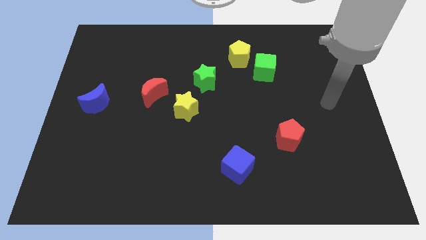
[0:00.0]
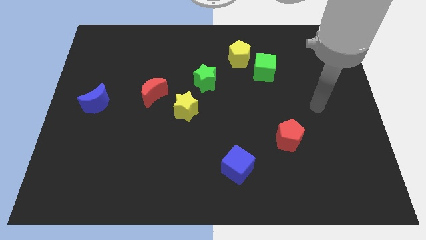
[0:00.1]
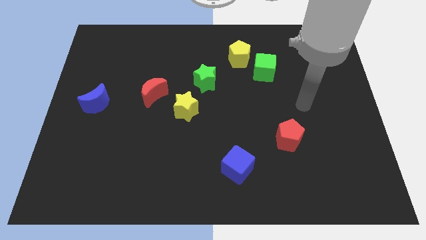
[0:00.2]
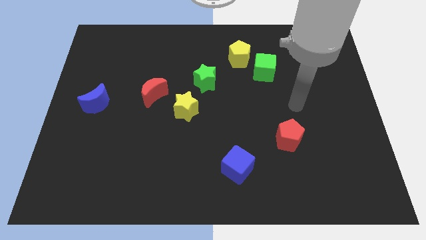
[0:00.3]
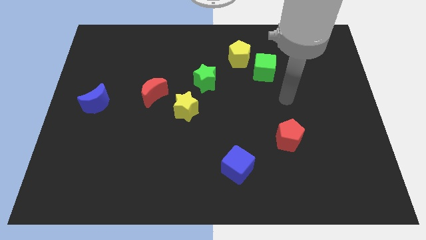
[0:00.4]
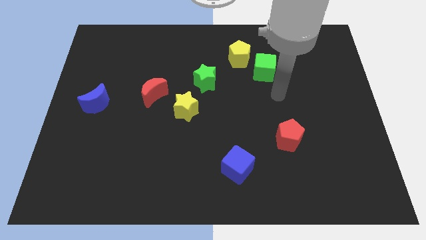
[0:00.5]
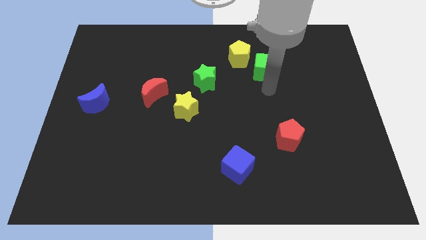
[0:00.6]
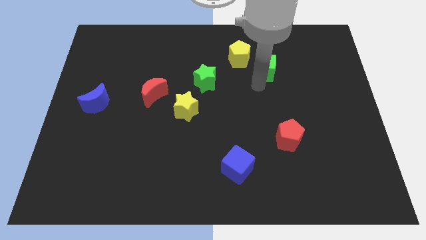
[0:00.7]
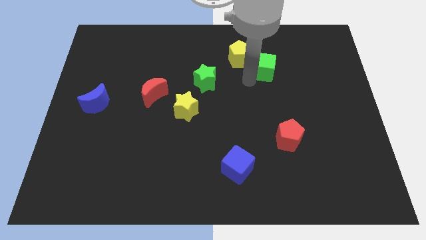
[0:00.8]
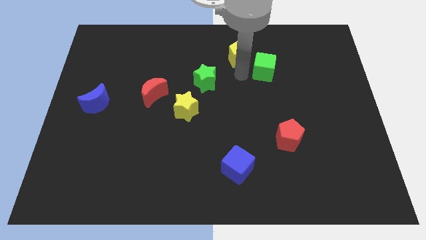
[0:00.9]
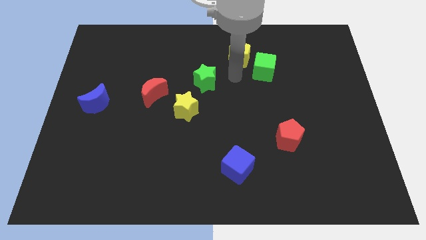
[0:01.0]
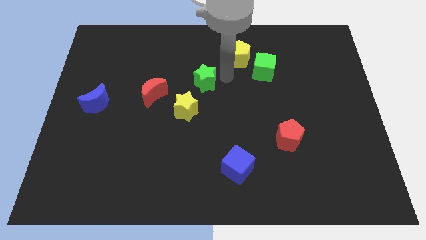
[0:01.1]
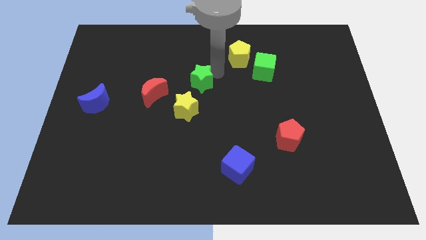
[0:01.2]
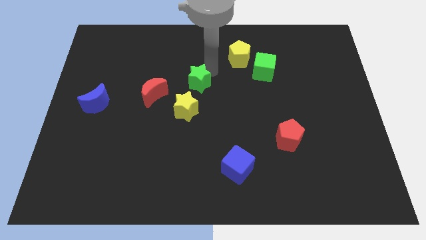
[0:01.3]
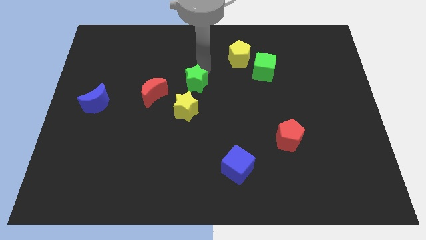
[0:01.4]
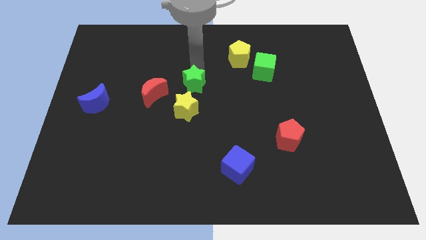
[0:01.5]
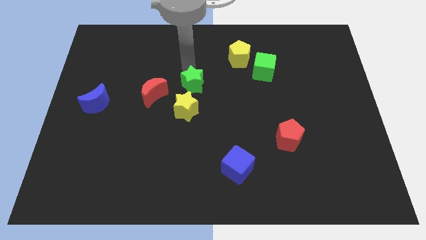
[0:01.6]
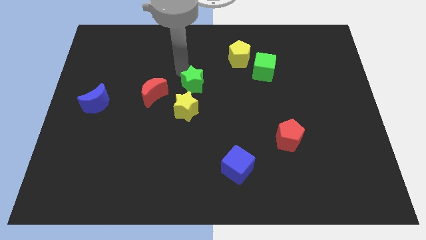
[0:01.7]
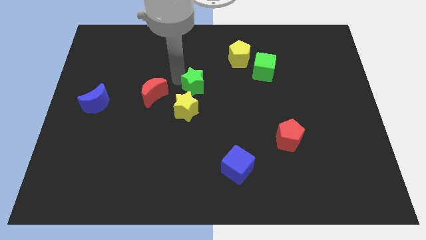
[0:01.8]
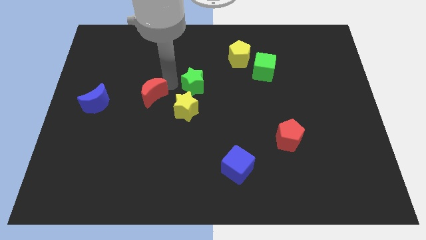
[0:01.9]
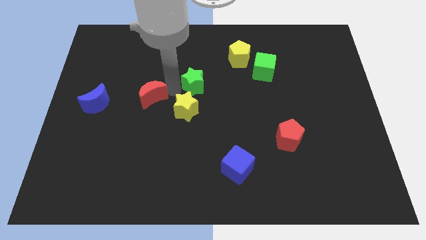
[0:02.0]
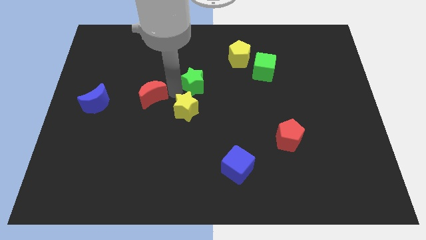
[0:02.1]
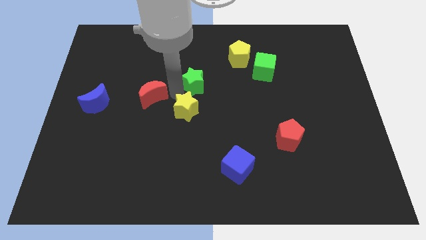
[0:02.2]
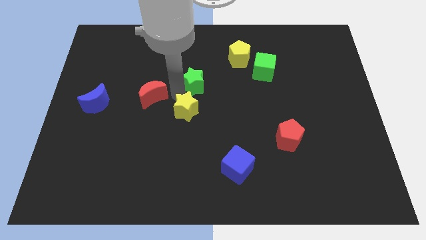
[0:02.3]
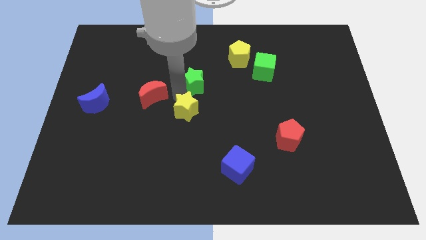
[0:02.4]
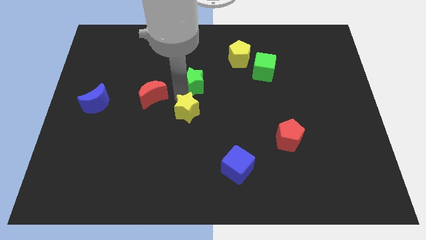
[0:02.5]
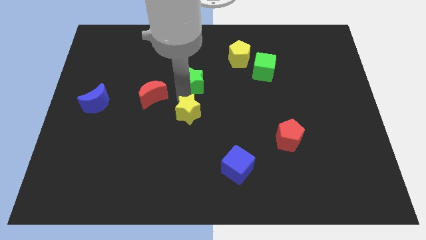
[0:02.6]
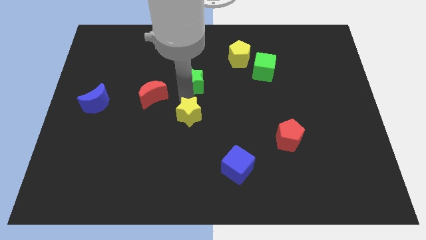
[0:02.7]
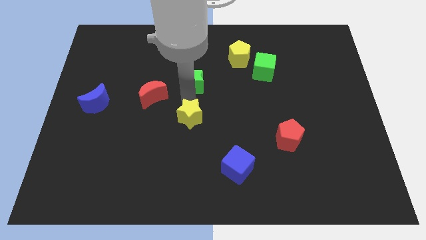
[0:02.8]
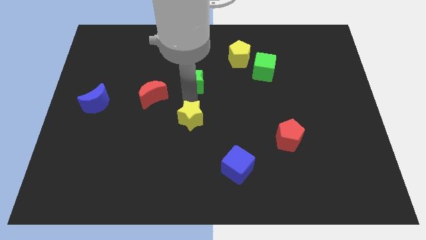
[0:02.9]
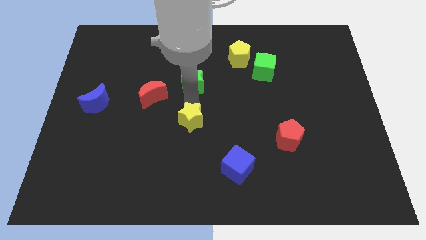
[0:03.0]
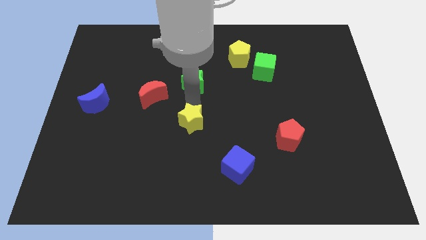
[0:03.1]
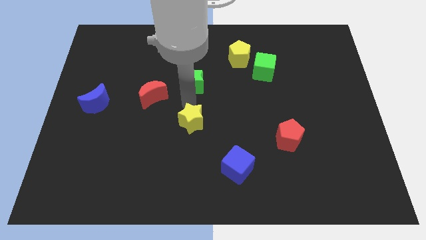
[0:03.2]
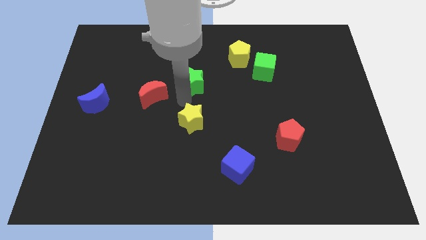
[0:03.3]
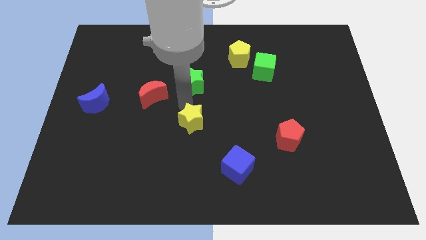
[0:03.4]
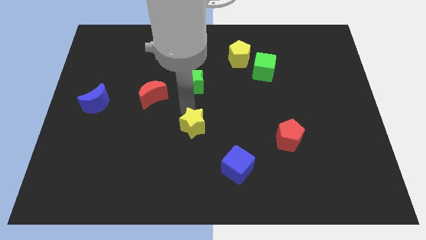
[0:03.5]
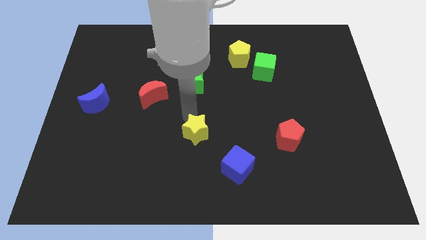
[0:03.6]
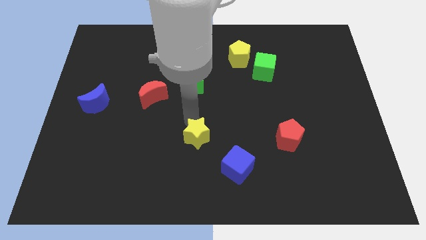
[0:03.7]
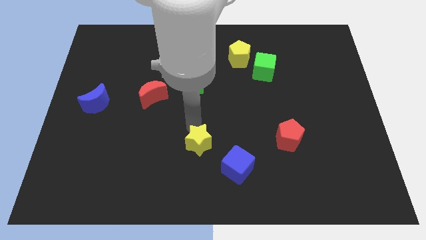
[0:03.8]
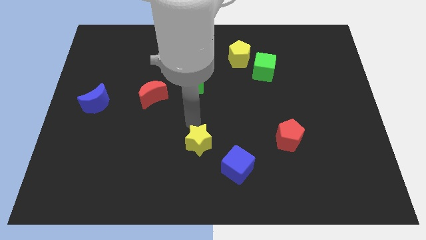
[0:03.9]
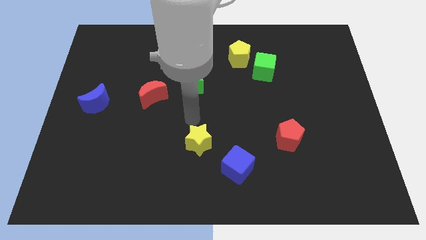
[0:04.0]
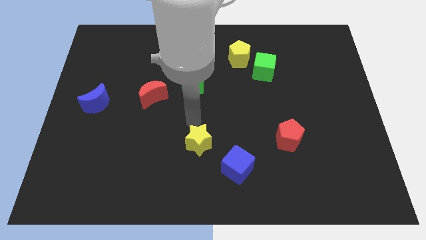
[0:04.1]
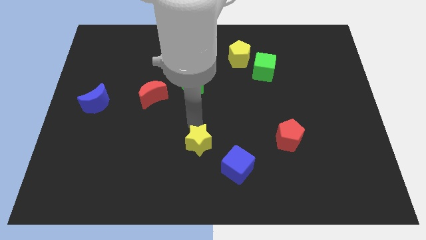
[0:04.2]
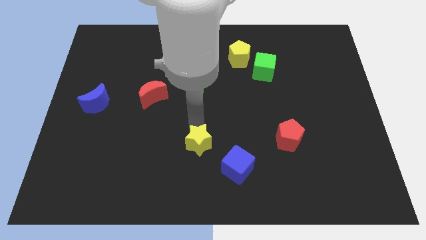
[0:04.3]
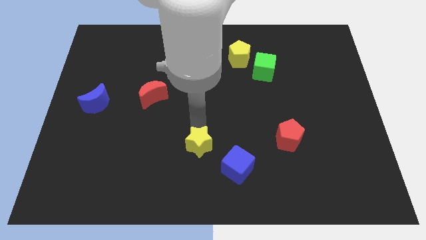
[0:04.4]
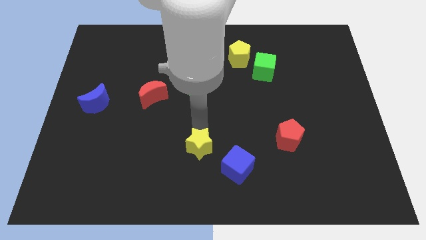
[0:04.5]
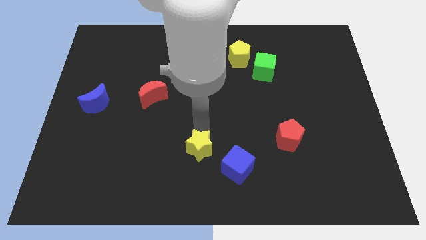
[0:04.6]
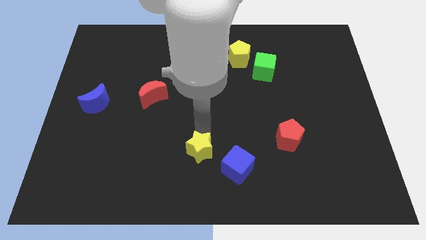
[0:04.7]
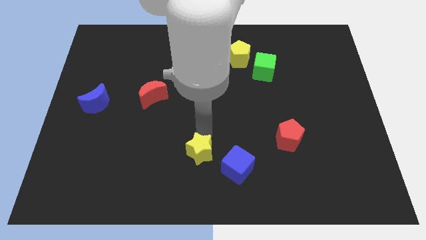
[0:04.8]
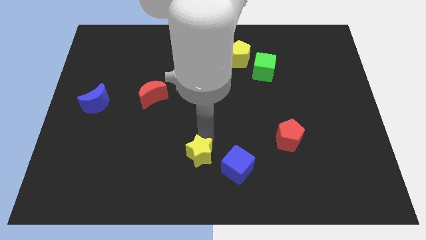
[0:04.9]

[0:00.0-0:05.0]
slide the yellow star to the bottom

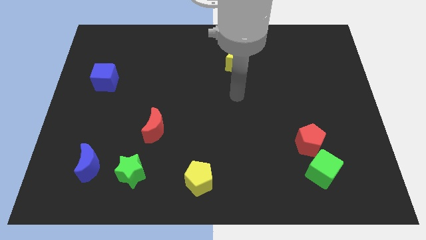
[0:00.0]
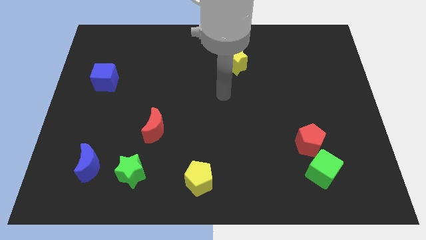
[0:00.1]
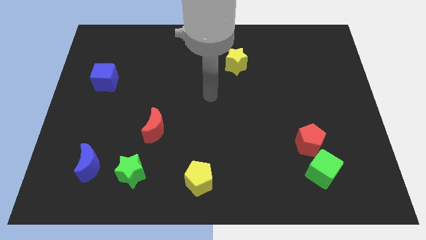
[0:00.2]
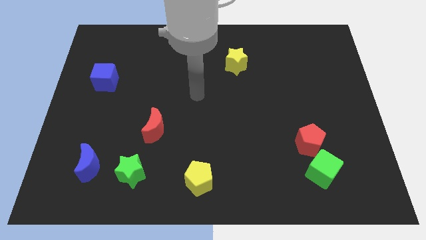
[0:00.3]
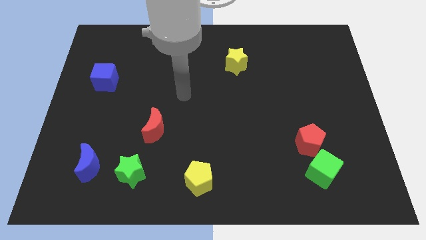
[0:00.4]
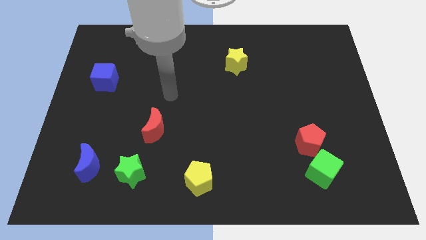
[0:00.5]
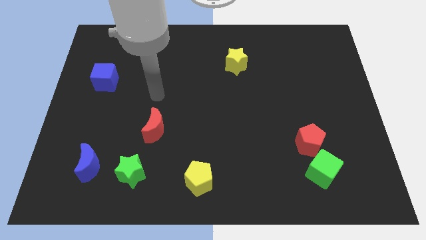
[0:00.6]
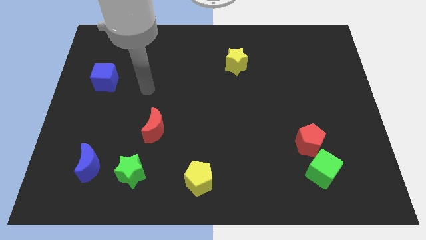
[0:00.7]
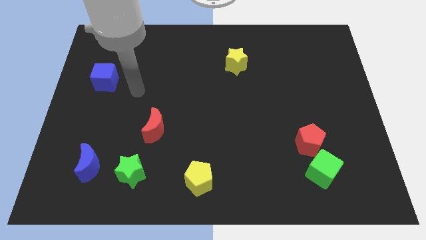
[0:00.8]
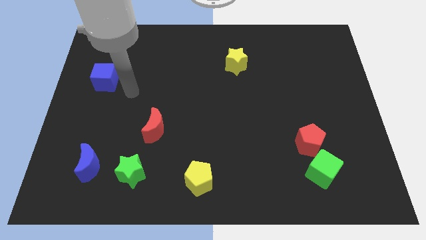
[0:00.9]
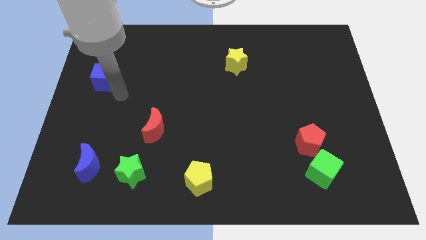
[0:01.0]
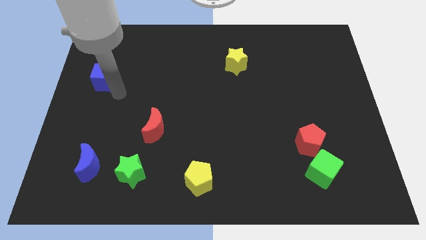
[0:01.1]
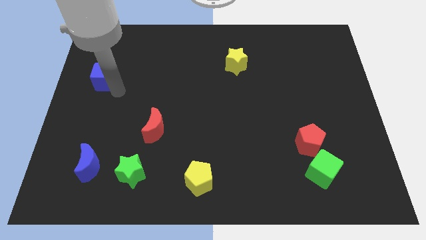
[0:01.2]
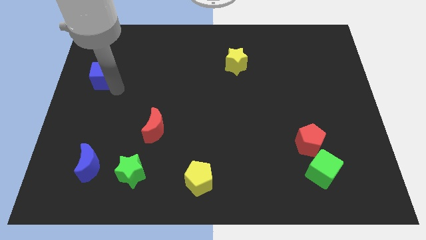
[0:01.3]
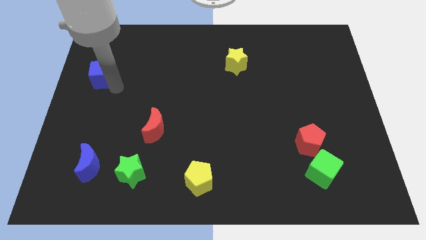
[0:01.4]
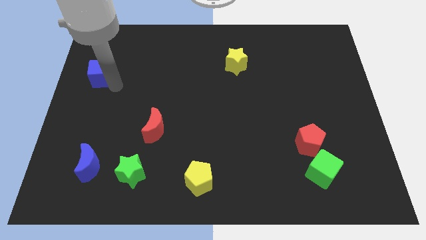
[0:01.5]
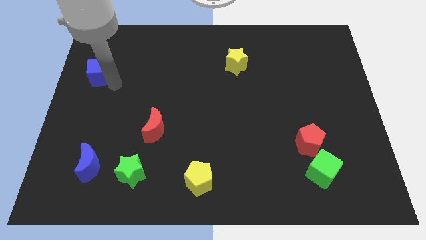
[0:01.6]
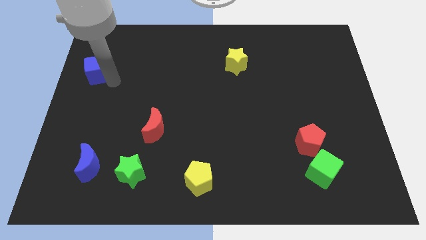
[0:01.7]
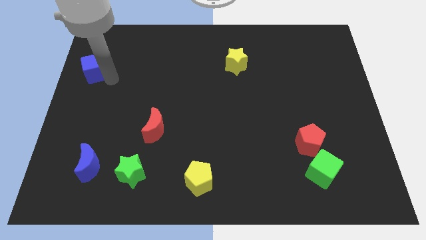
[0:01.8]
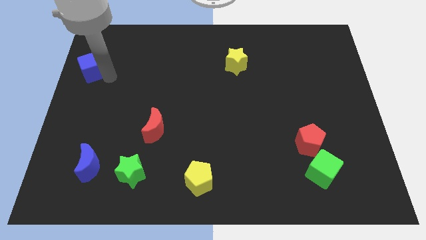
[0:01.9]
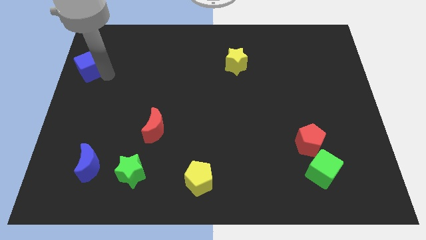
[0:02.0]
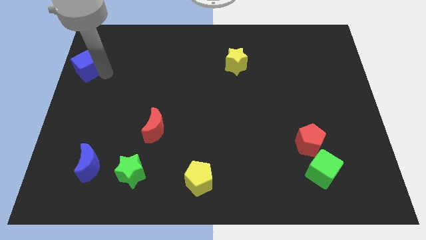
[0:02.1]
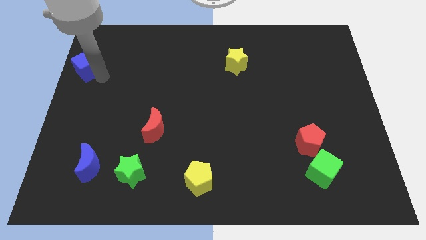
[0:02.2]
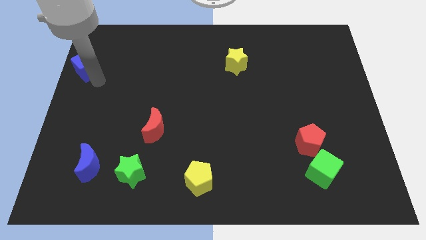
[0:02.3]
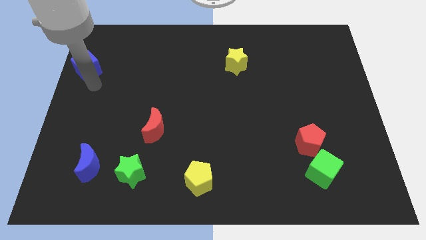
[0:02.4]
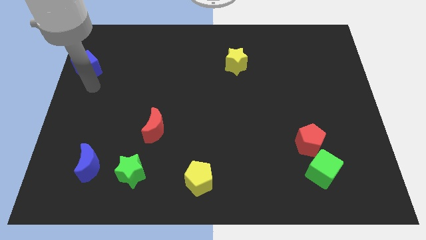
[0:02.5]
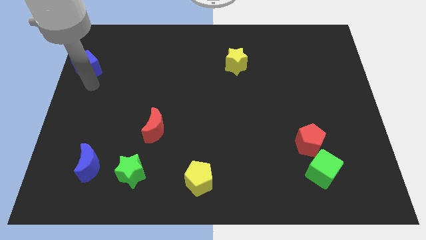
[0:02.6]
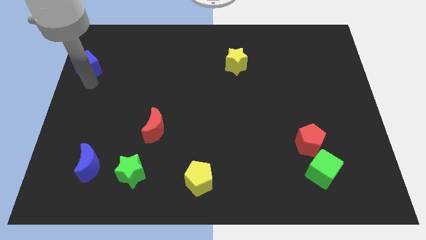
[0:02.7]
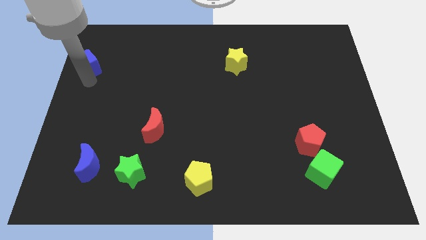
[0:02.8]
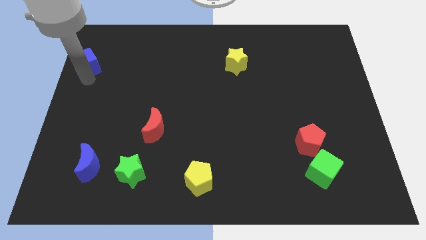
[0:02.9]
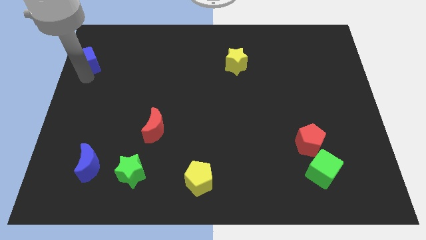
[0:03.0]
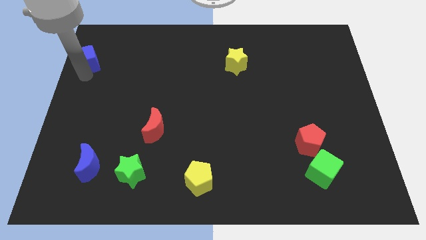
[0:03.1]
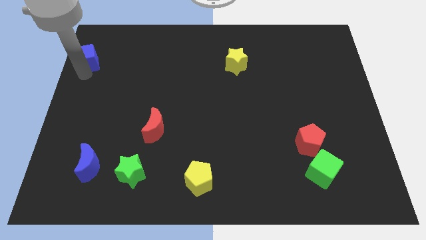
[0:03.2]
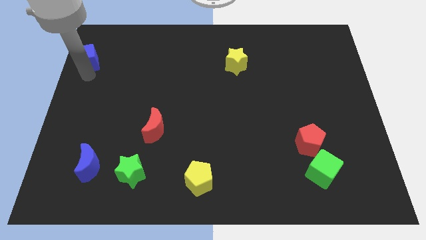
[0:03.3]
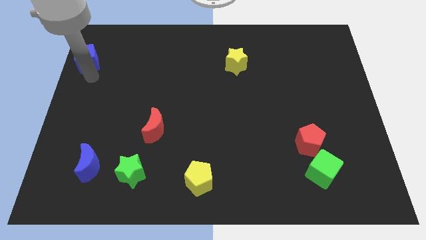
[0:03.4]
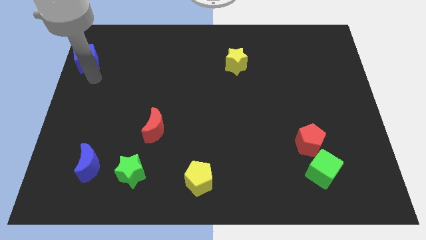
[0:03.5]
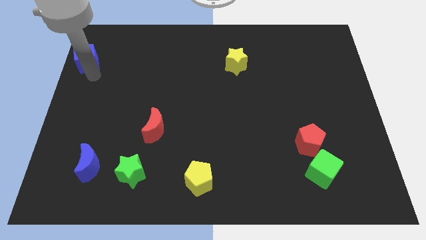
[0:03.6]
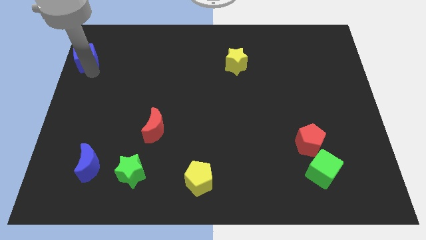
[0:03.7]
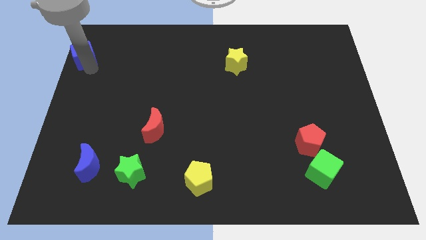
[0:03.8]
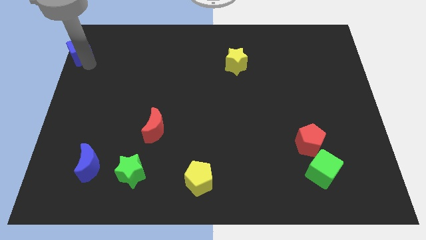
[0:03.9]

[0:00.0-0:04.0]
push the blue cube to the top left
